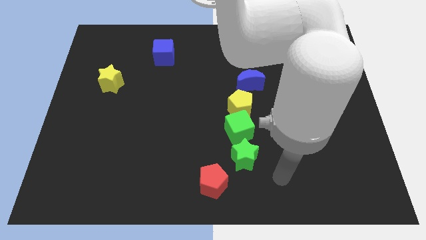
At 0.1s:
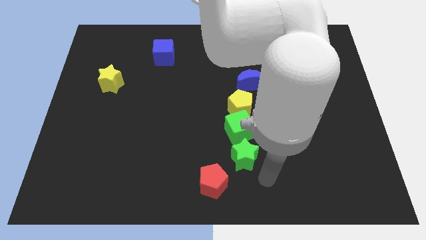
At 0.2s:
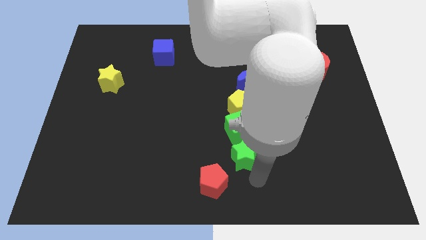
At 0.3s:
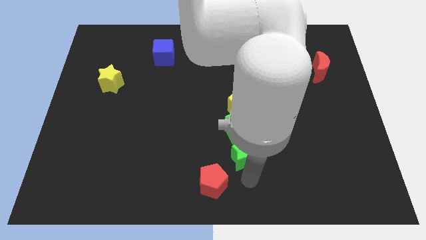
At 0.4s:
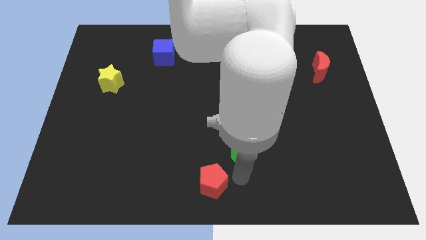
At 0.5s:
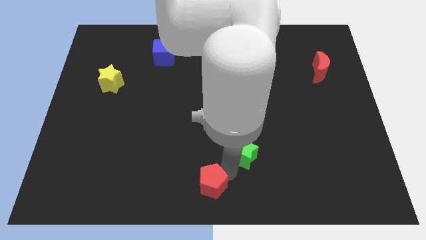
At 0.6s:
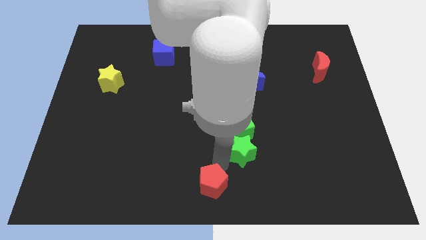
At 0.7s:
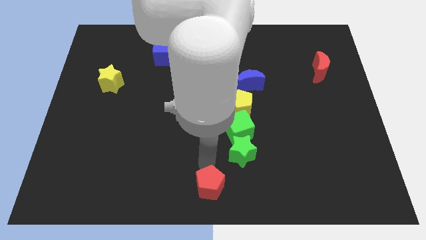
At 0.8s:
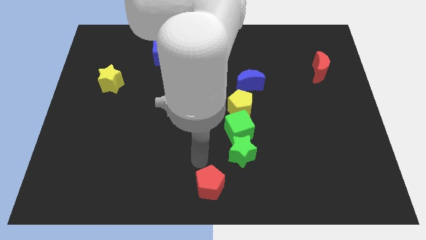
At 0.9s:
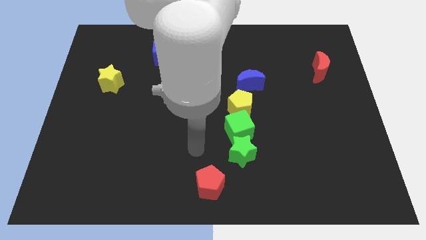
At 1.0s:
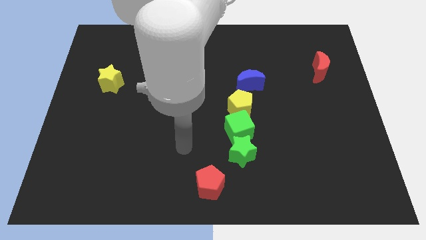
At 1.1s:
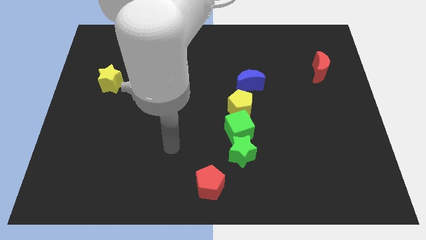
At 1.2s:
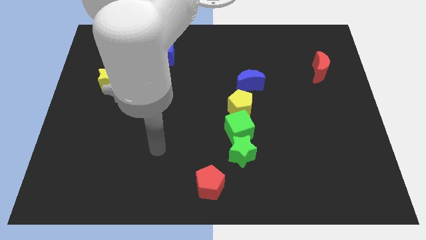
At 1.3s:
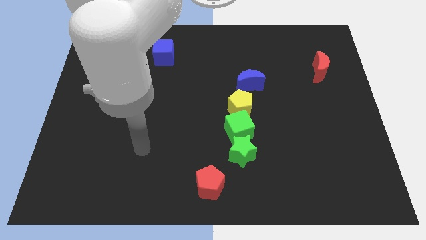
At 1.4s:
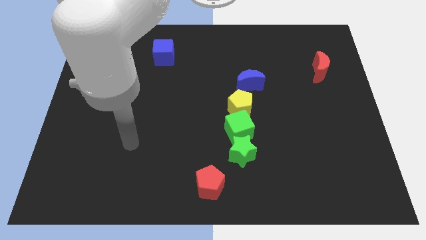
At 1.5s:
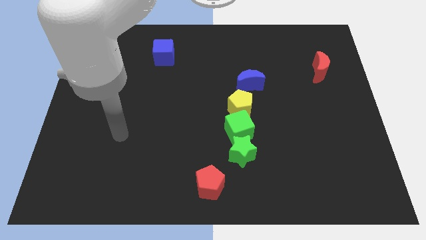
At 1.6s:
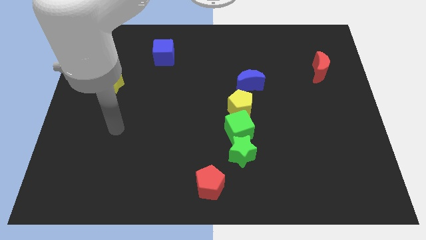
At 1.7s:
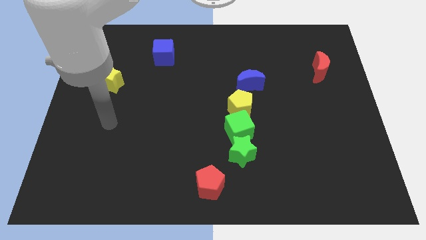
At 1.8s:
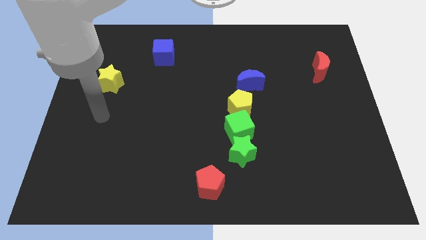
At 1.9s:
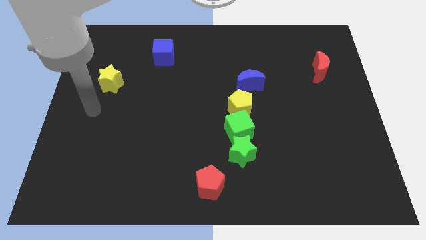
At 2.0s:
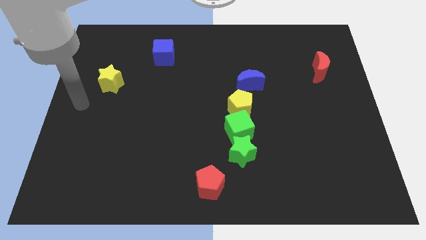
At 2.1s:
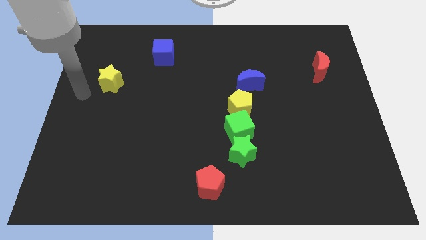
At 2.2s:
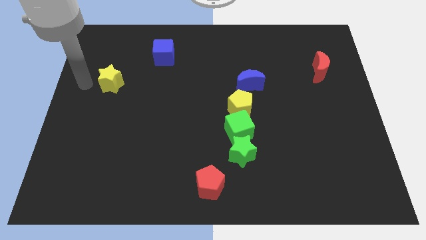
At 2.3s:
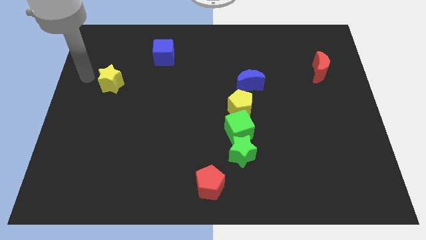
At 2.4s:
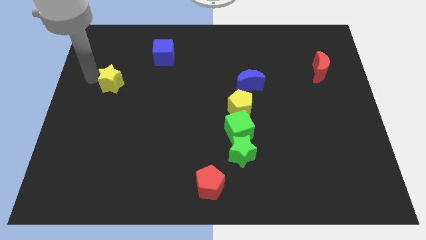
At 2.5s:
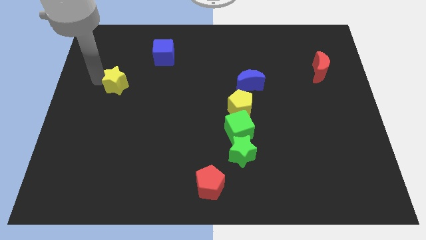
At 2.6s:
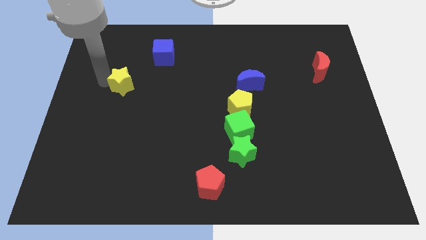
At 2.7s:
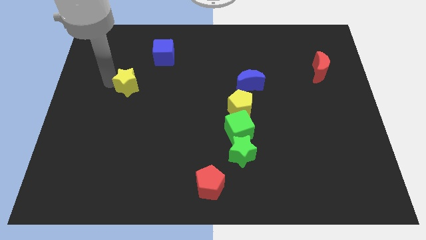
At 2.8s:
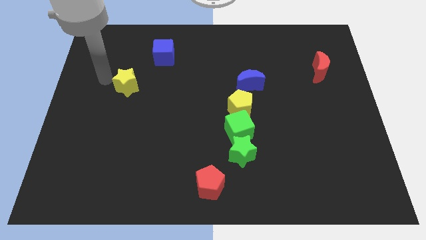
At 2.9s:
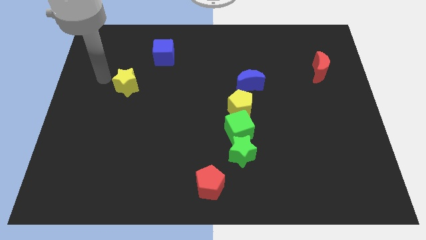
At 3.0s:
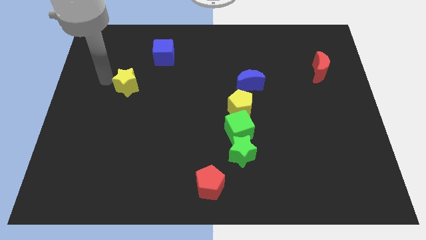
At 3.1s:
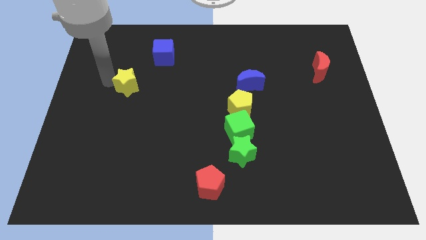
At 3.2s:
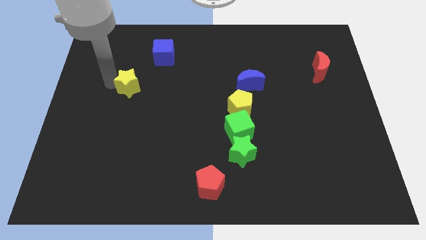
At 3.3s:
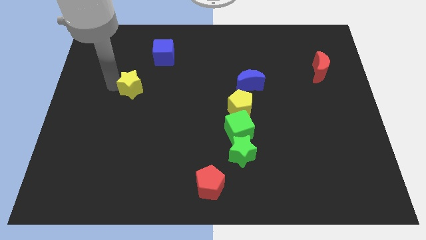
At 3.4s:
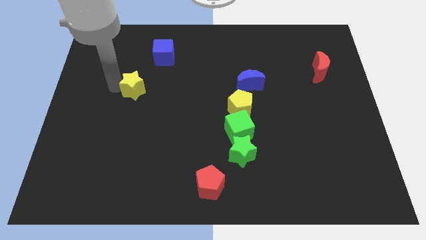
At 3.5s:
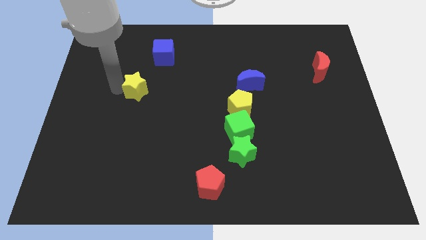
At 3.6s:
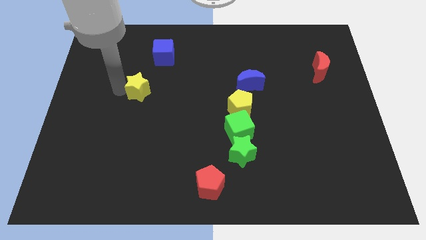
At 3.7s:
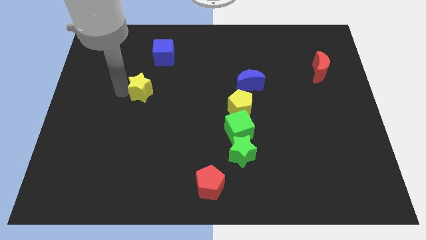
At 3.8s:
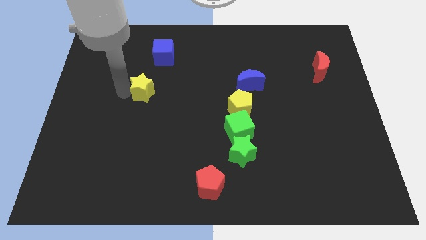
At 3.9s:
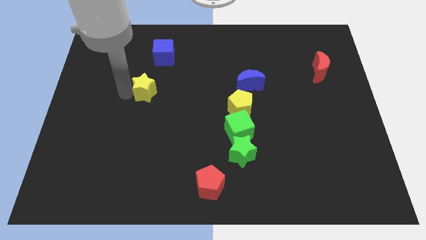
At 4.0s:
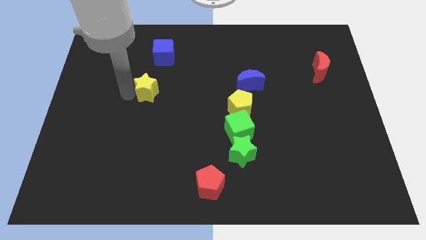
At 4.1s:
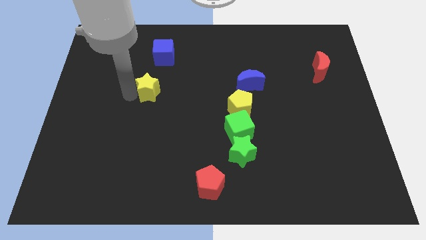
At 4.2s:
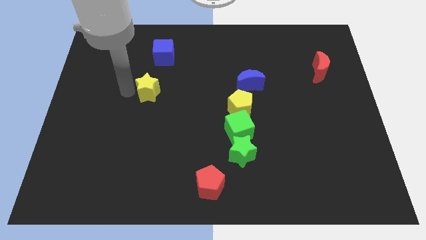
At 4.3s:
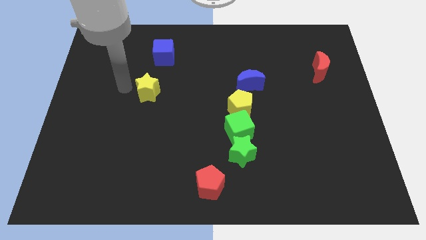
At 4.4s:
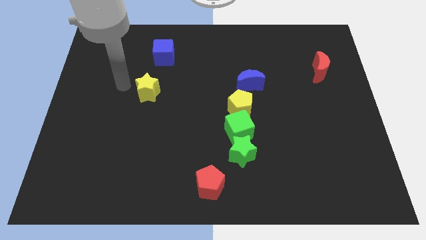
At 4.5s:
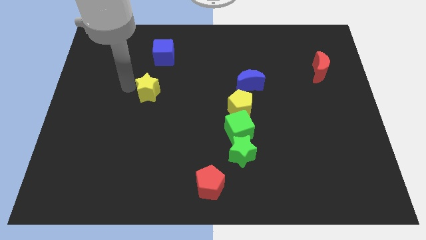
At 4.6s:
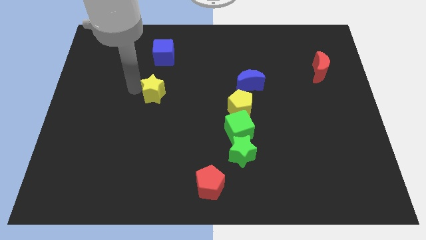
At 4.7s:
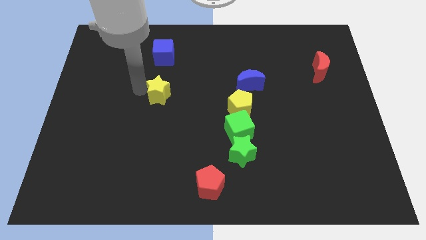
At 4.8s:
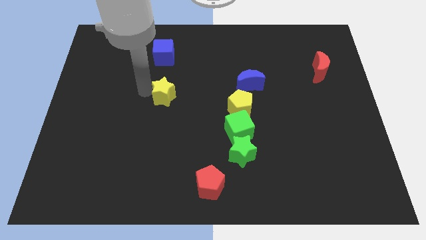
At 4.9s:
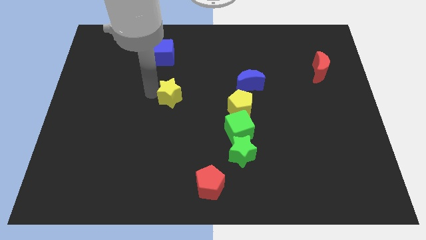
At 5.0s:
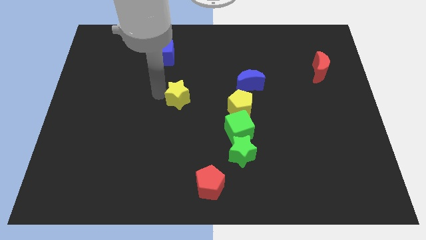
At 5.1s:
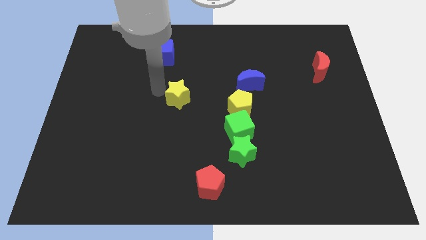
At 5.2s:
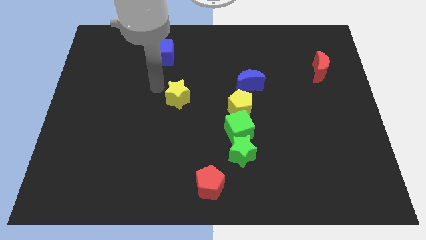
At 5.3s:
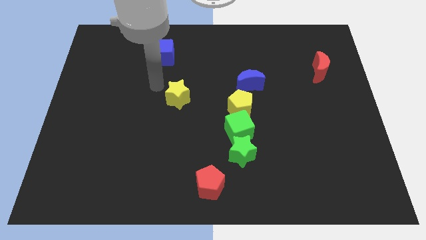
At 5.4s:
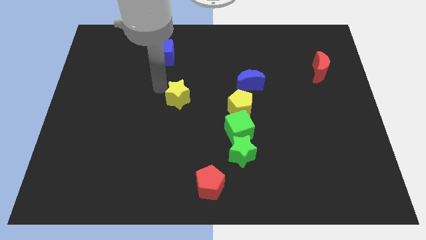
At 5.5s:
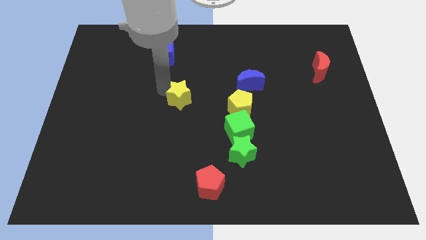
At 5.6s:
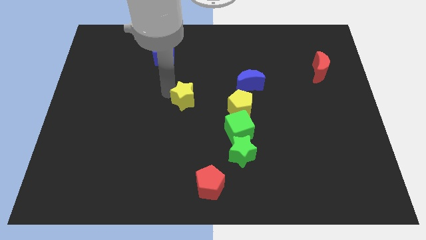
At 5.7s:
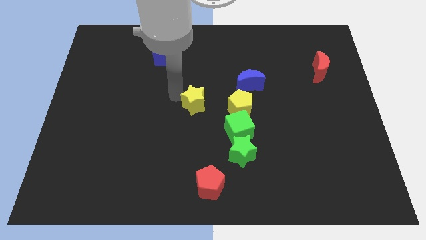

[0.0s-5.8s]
push the yellow star to the top left side of the green cube

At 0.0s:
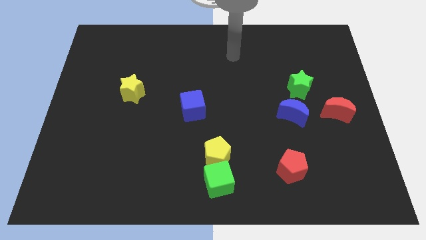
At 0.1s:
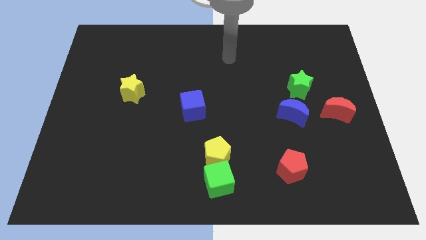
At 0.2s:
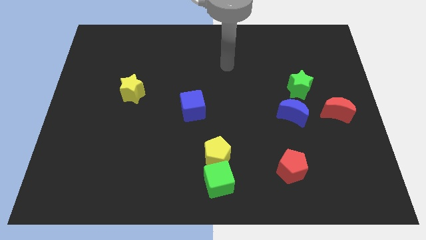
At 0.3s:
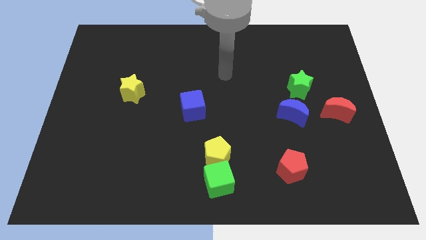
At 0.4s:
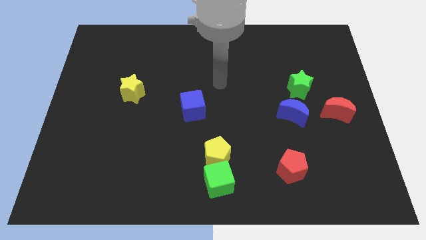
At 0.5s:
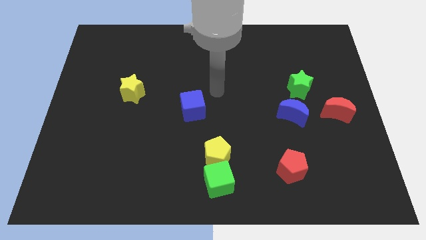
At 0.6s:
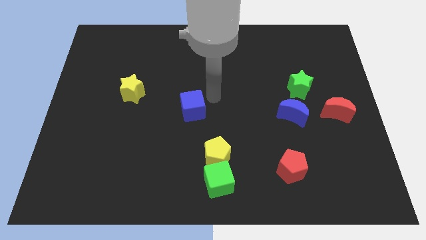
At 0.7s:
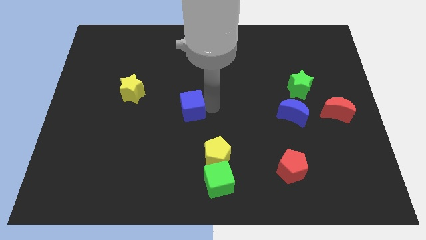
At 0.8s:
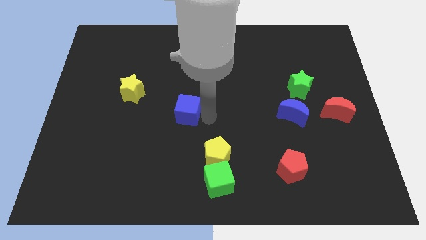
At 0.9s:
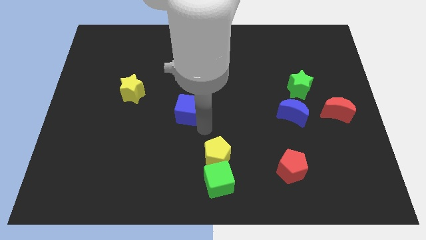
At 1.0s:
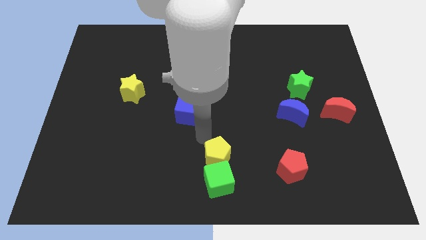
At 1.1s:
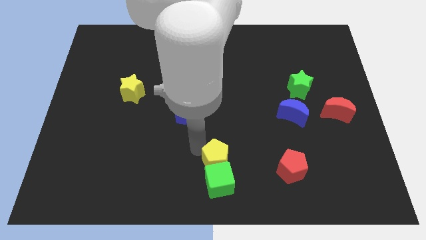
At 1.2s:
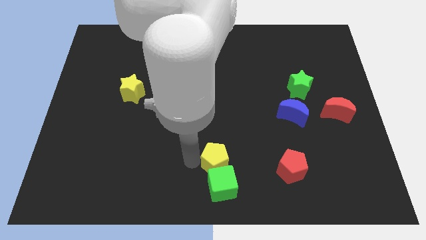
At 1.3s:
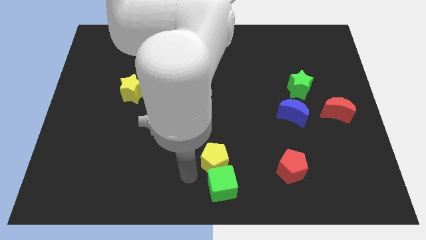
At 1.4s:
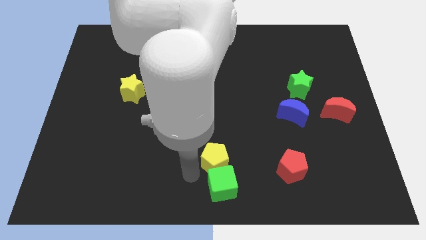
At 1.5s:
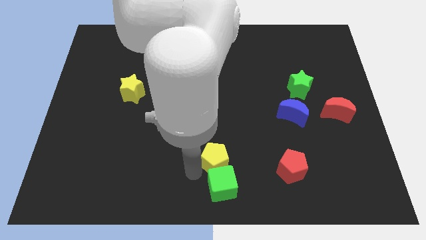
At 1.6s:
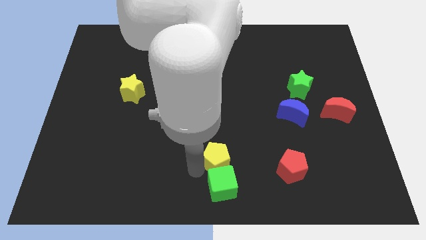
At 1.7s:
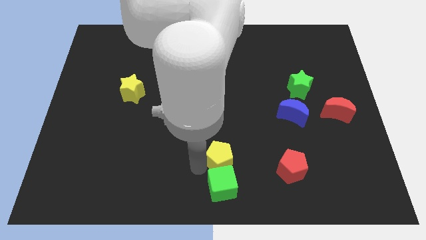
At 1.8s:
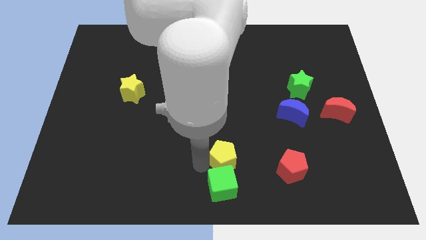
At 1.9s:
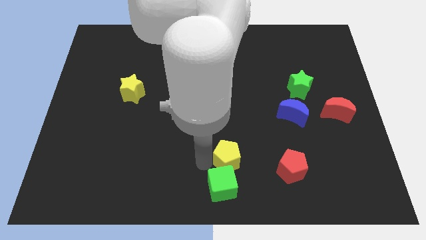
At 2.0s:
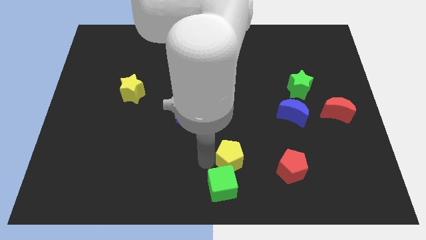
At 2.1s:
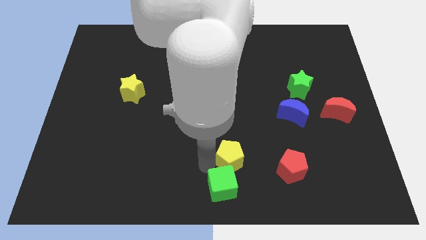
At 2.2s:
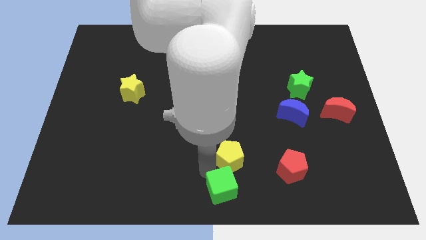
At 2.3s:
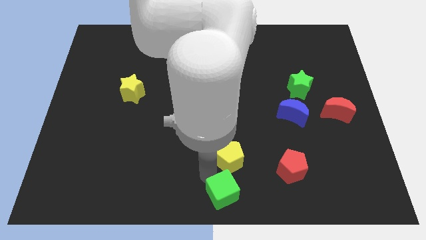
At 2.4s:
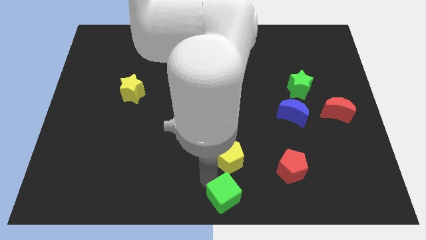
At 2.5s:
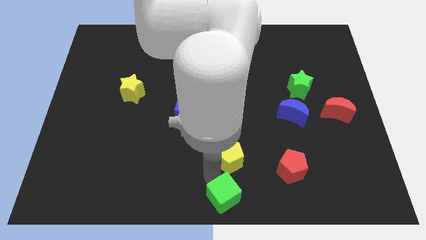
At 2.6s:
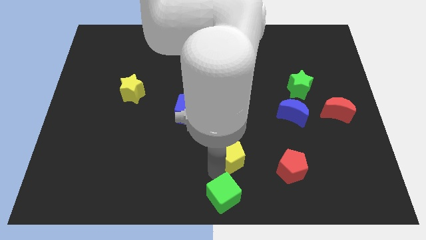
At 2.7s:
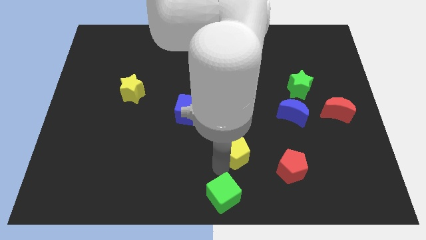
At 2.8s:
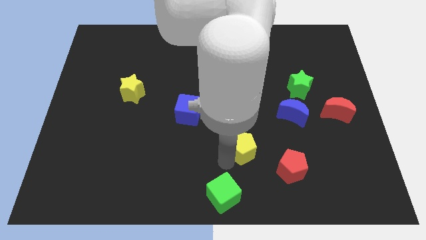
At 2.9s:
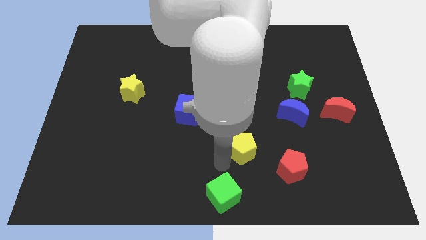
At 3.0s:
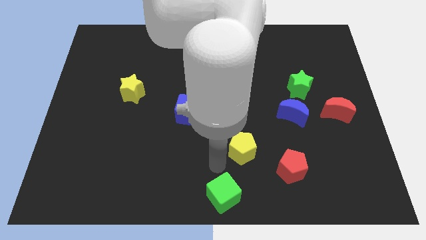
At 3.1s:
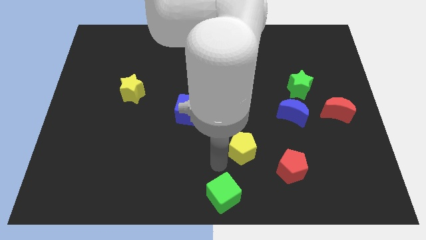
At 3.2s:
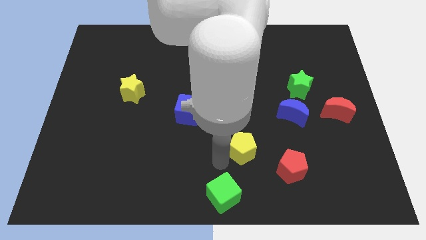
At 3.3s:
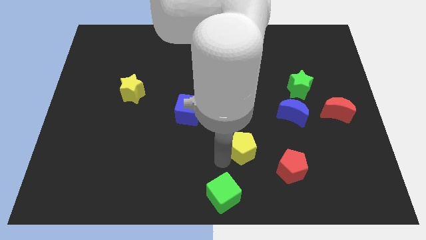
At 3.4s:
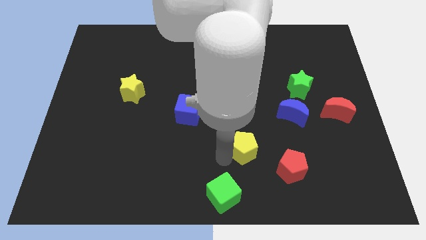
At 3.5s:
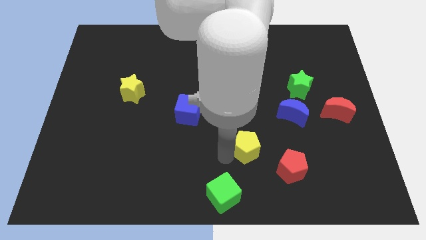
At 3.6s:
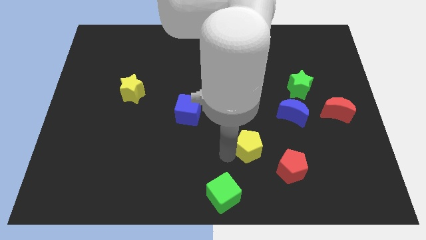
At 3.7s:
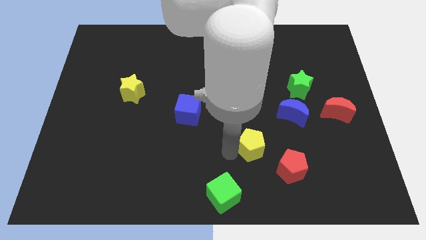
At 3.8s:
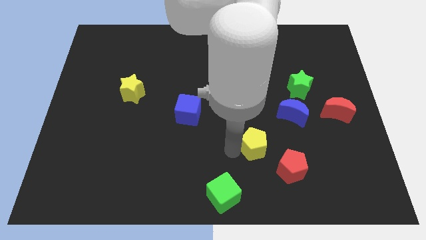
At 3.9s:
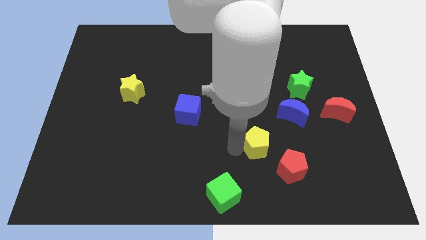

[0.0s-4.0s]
move the yellow pentagon diagonally down and to the left of the blue moon
